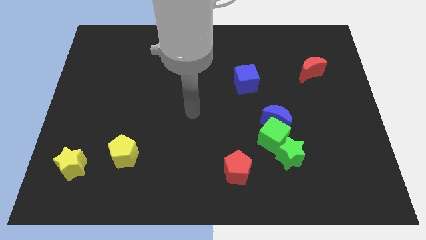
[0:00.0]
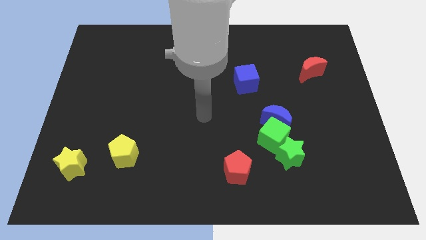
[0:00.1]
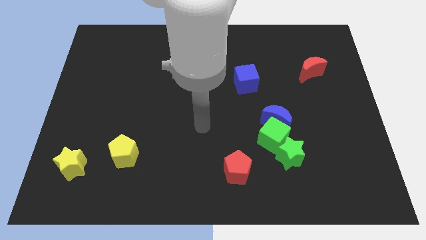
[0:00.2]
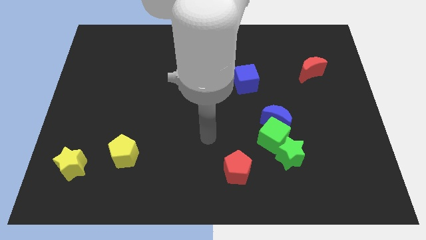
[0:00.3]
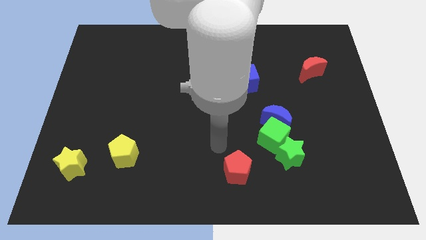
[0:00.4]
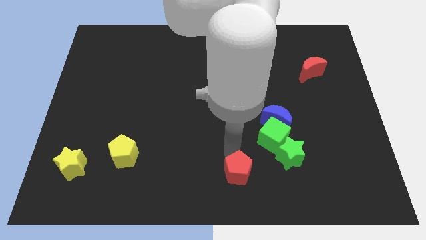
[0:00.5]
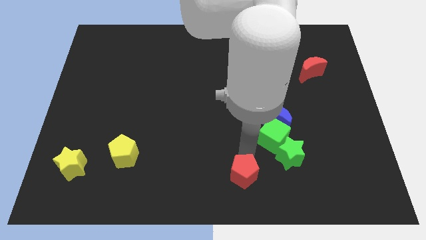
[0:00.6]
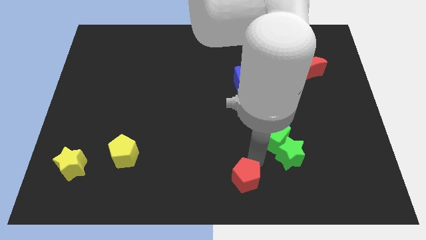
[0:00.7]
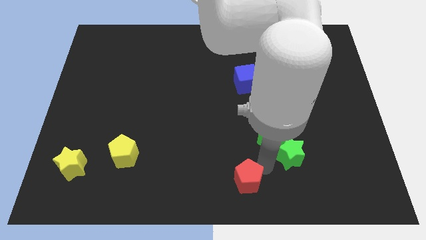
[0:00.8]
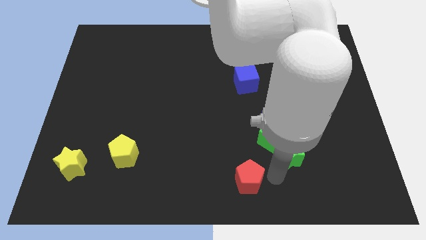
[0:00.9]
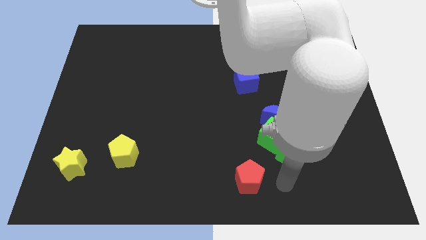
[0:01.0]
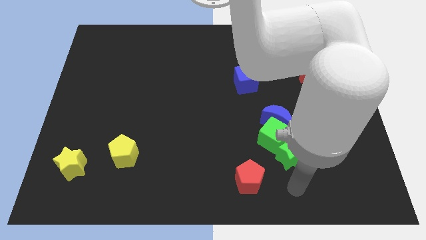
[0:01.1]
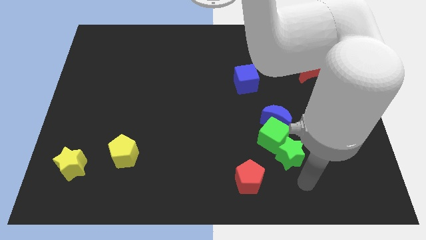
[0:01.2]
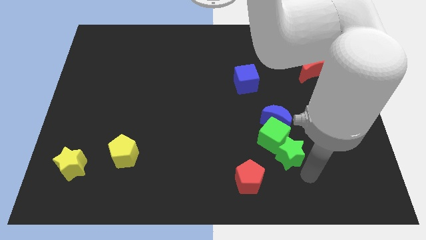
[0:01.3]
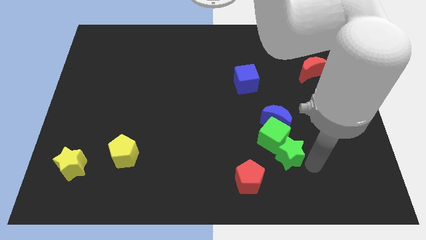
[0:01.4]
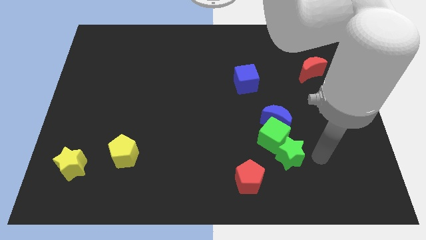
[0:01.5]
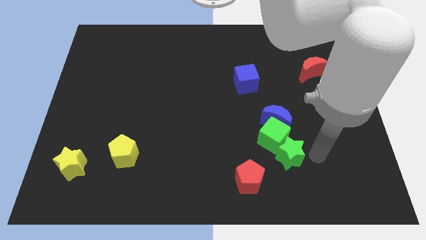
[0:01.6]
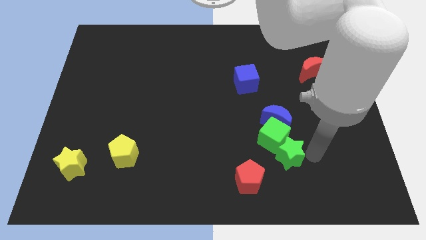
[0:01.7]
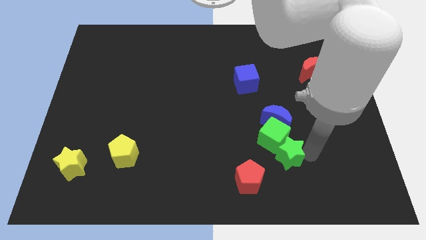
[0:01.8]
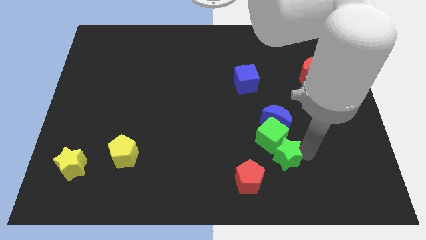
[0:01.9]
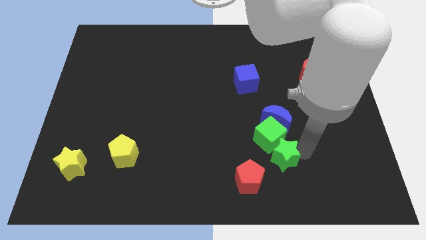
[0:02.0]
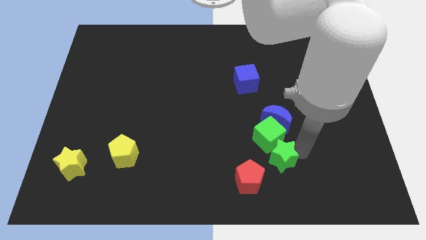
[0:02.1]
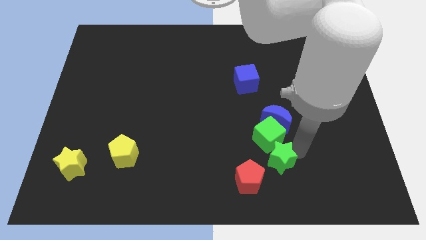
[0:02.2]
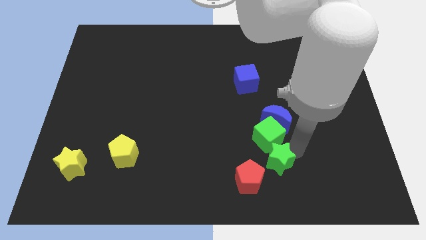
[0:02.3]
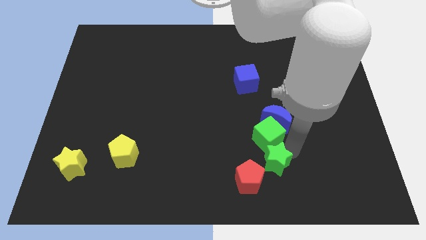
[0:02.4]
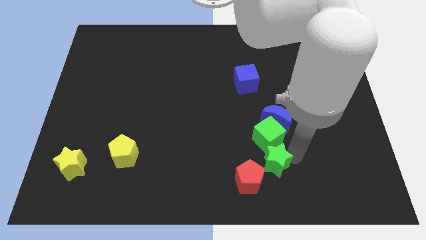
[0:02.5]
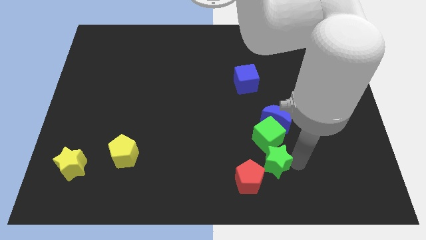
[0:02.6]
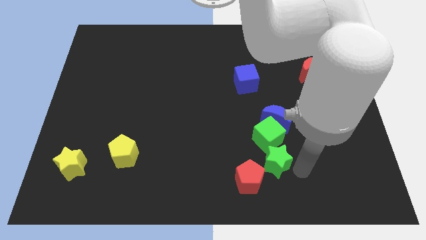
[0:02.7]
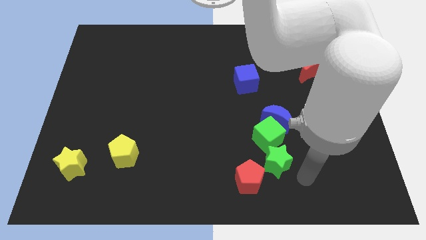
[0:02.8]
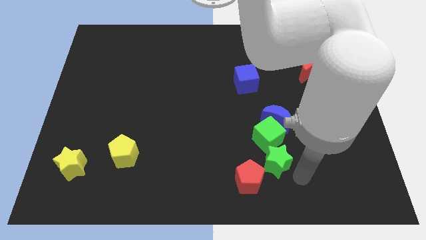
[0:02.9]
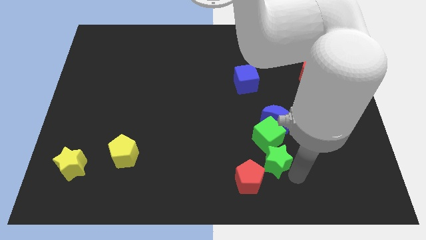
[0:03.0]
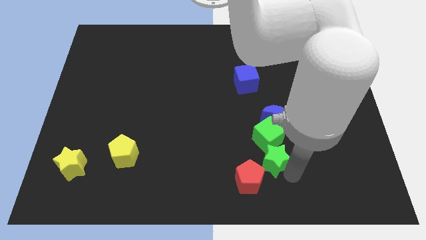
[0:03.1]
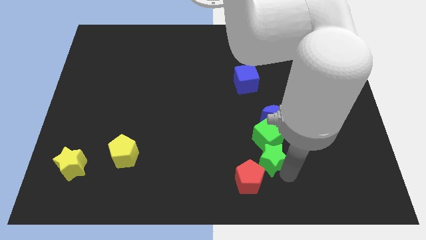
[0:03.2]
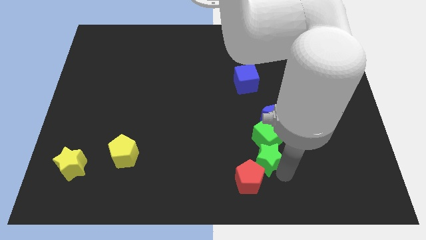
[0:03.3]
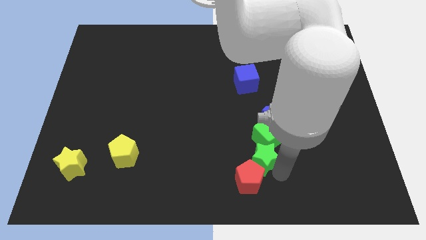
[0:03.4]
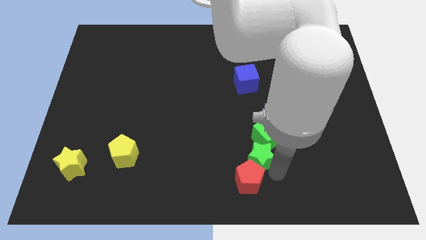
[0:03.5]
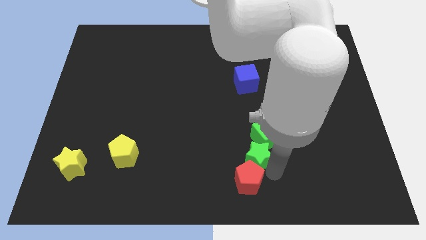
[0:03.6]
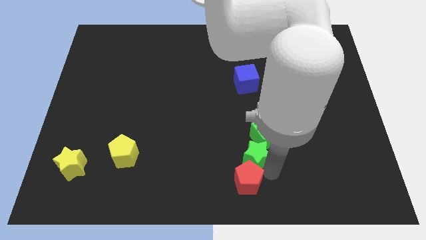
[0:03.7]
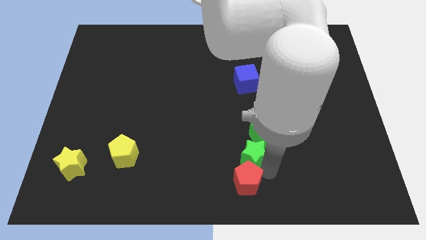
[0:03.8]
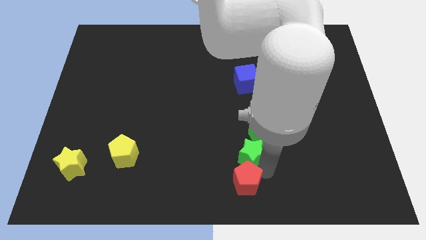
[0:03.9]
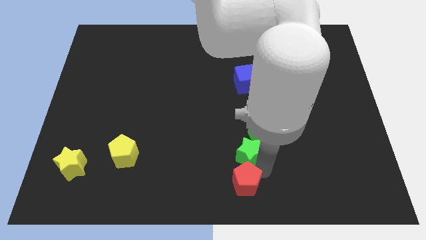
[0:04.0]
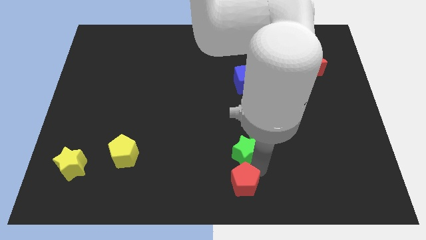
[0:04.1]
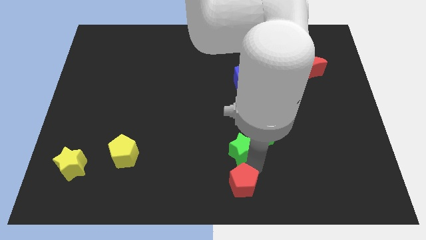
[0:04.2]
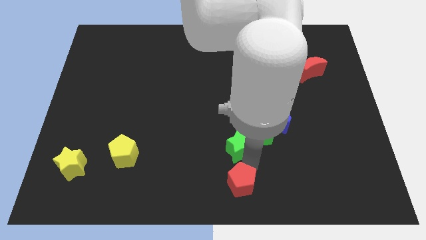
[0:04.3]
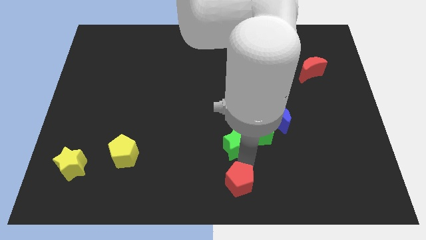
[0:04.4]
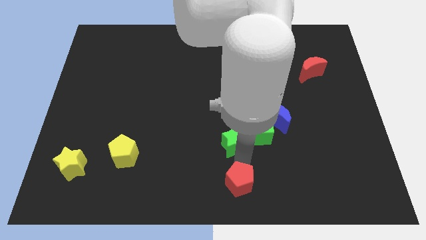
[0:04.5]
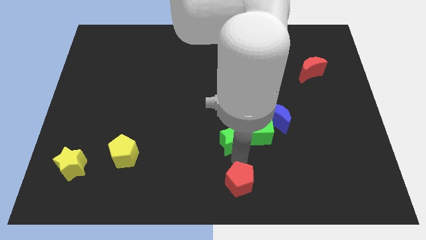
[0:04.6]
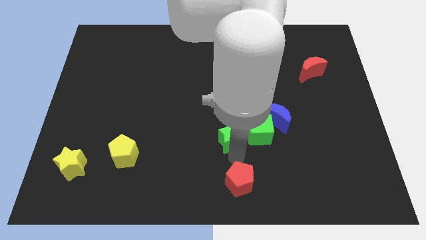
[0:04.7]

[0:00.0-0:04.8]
put the green star to the middle

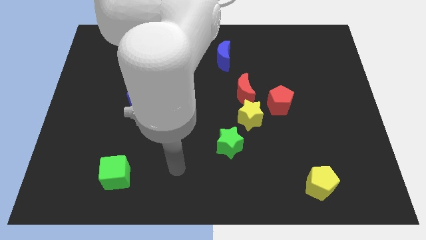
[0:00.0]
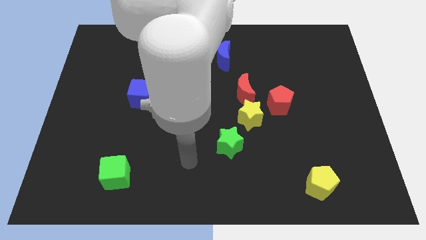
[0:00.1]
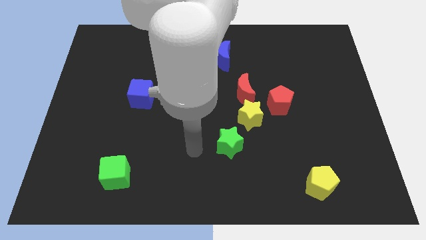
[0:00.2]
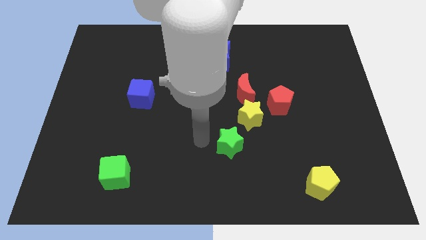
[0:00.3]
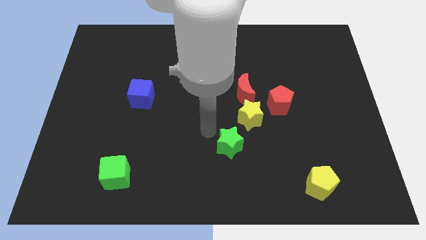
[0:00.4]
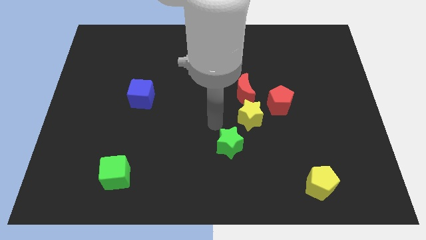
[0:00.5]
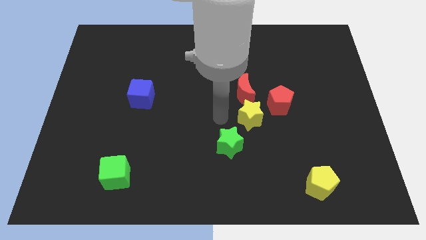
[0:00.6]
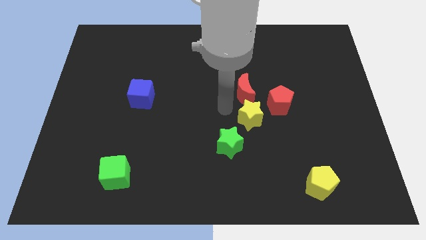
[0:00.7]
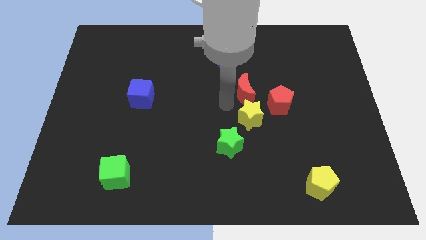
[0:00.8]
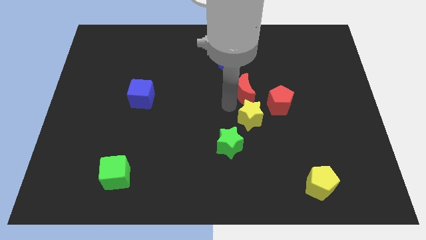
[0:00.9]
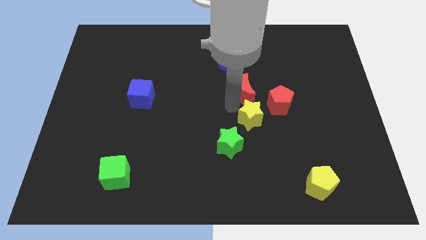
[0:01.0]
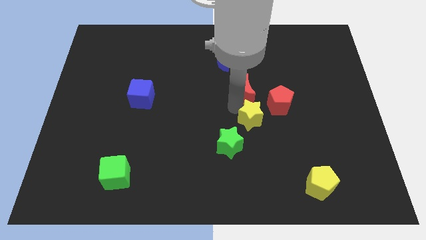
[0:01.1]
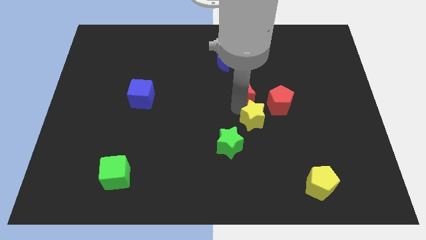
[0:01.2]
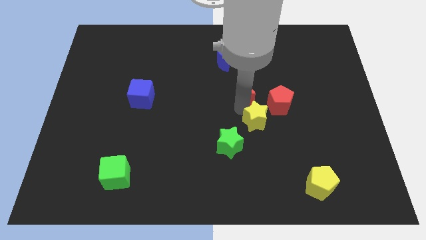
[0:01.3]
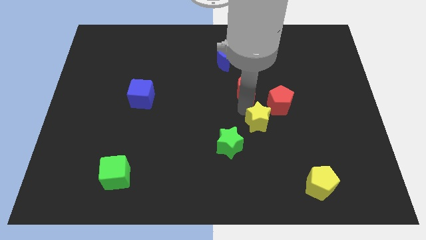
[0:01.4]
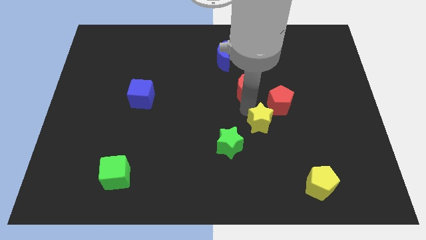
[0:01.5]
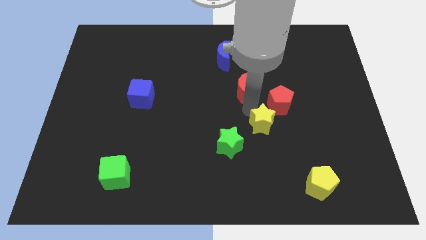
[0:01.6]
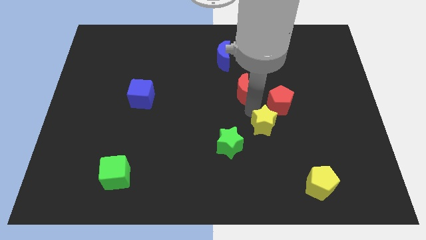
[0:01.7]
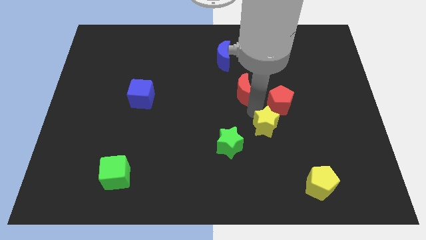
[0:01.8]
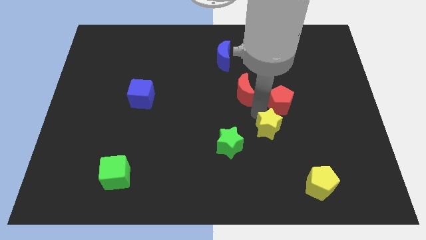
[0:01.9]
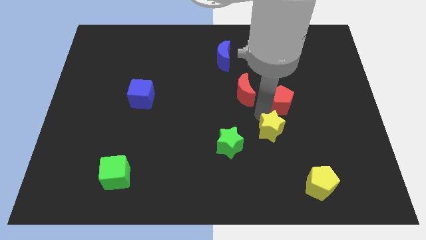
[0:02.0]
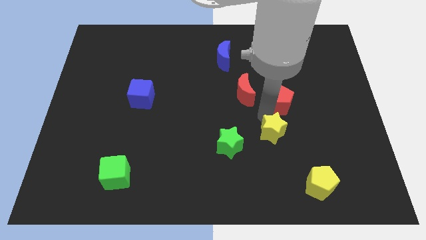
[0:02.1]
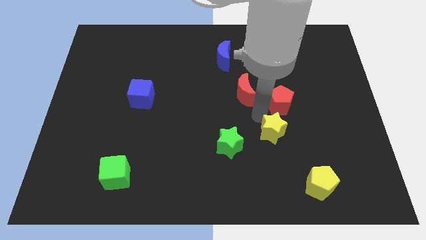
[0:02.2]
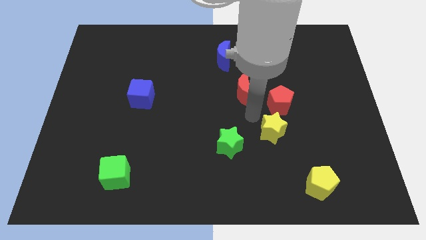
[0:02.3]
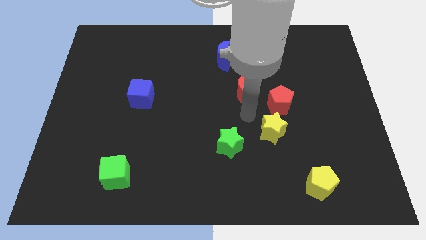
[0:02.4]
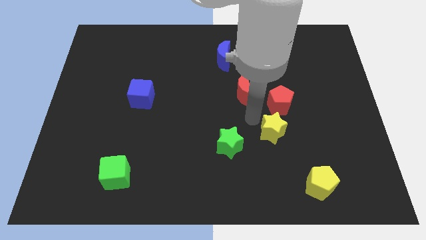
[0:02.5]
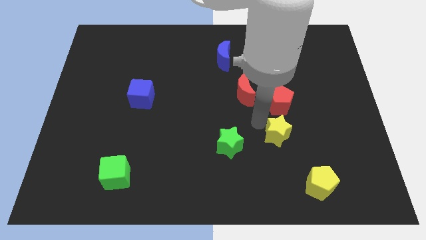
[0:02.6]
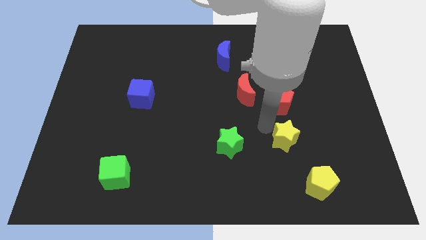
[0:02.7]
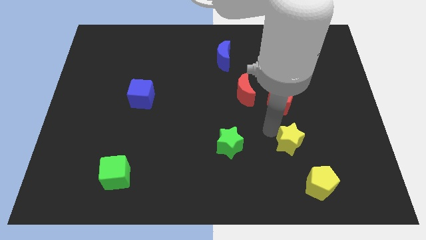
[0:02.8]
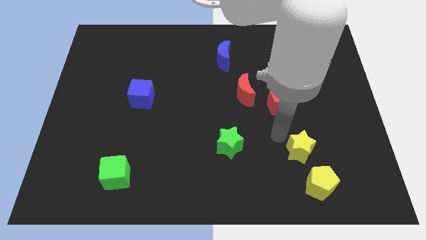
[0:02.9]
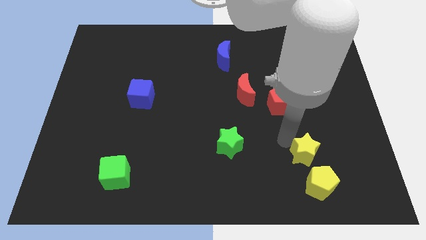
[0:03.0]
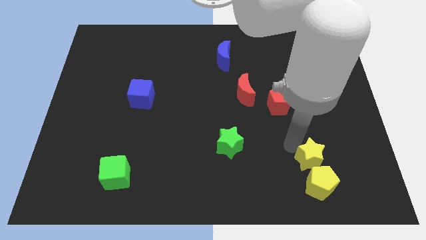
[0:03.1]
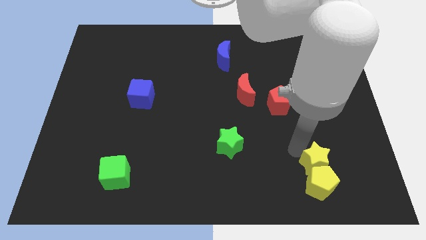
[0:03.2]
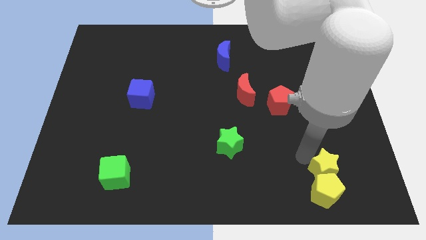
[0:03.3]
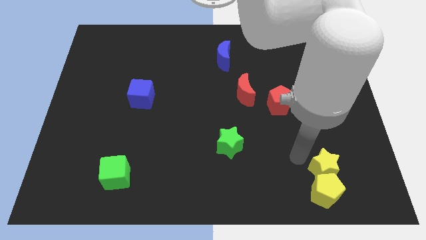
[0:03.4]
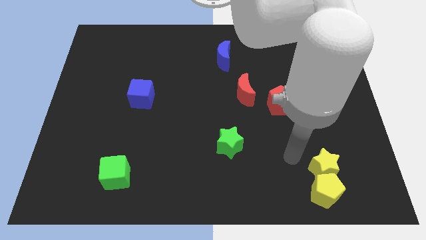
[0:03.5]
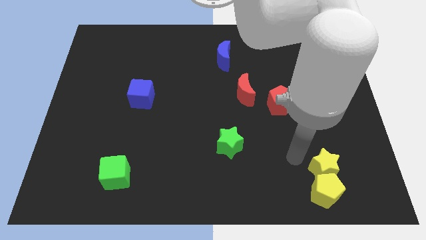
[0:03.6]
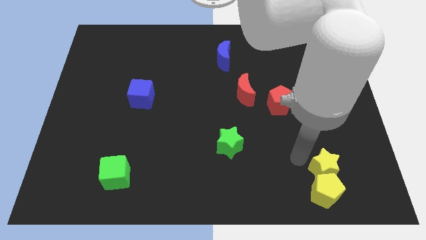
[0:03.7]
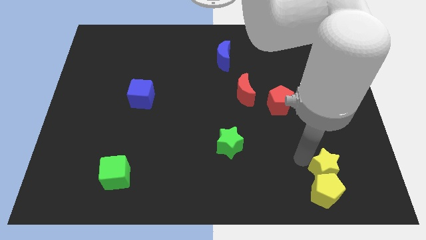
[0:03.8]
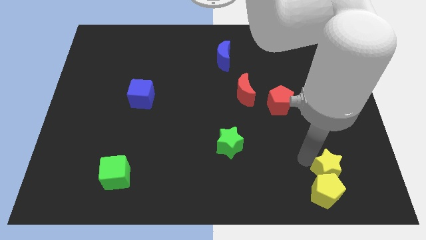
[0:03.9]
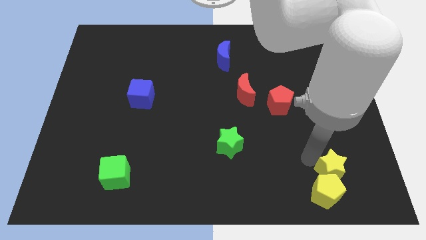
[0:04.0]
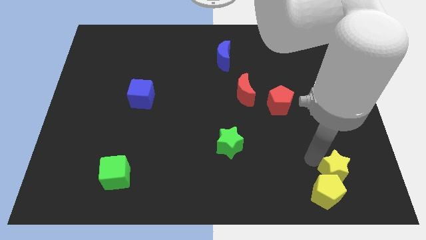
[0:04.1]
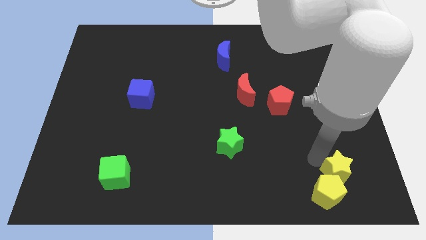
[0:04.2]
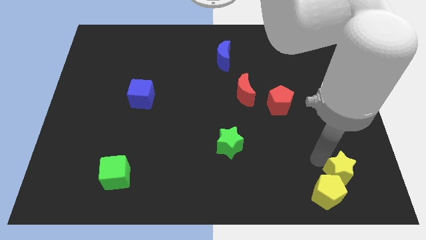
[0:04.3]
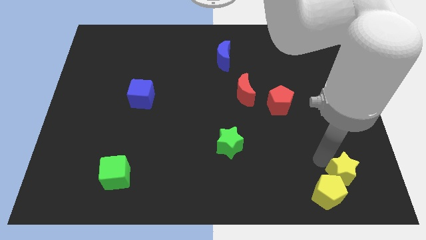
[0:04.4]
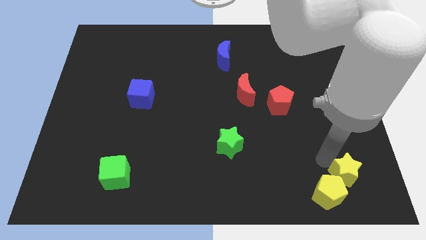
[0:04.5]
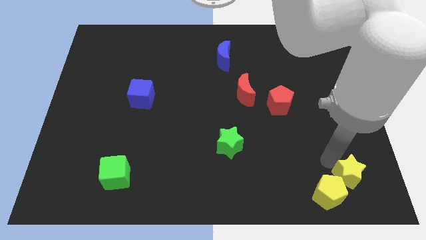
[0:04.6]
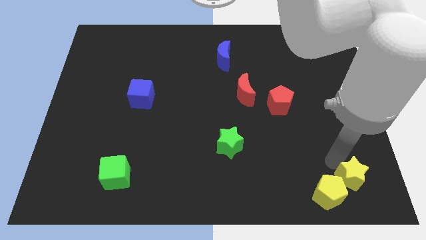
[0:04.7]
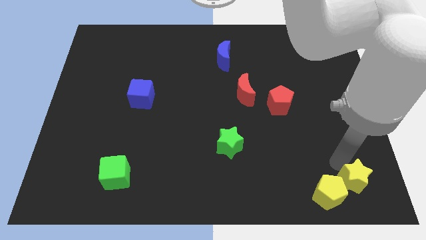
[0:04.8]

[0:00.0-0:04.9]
put the yellow star to the bottom right of the board
